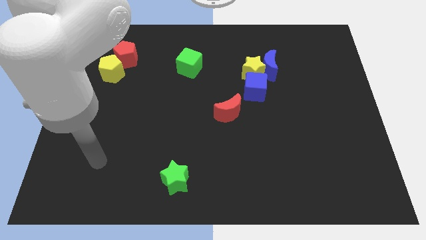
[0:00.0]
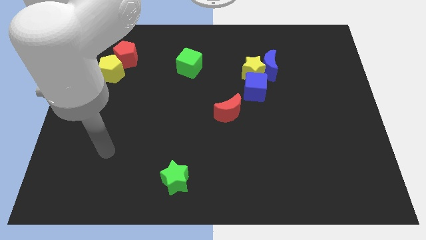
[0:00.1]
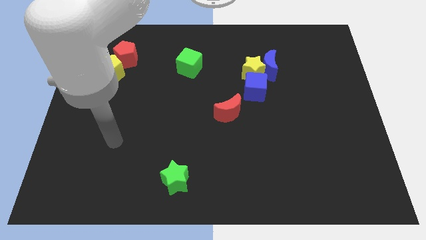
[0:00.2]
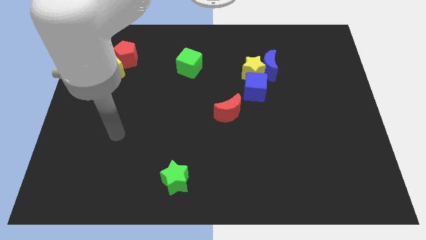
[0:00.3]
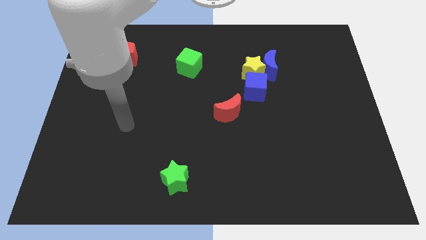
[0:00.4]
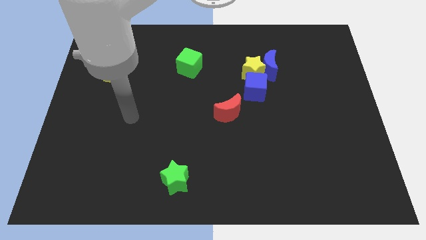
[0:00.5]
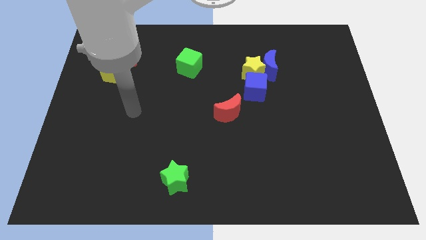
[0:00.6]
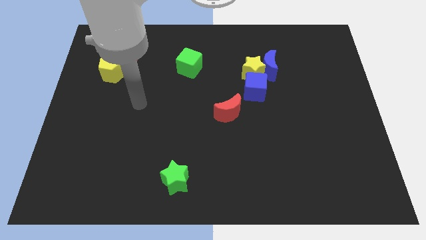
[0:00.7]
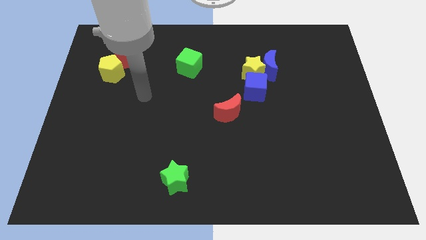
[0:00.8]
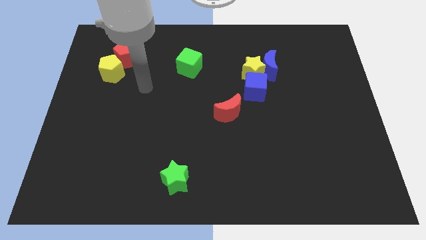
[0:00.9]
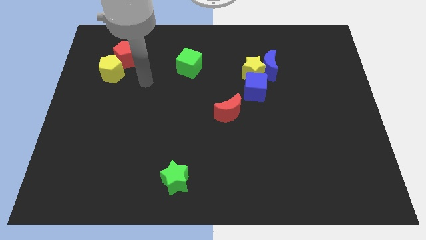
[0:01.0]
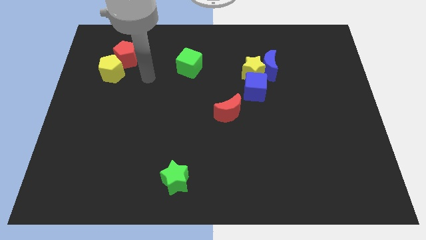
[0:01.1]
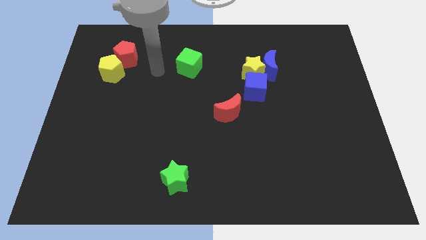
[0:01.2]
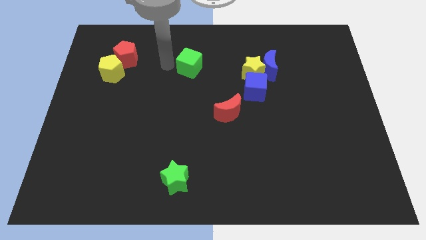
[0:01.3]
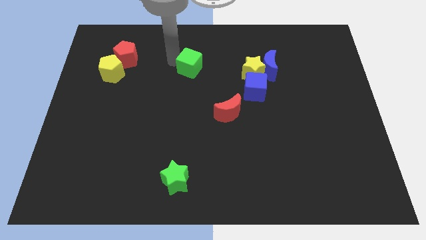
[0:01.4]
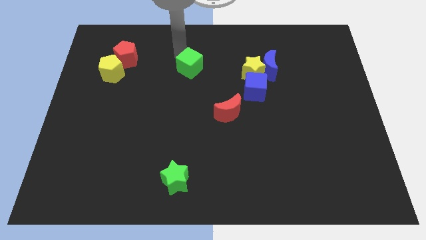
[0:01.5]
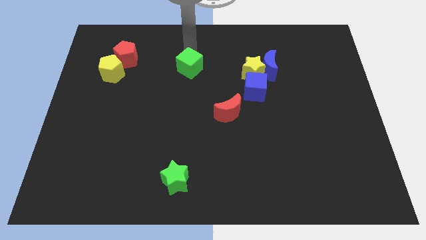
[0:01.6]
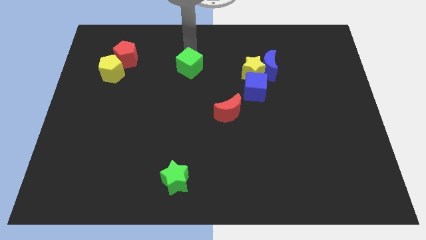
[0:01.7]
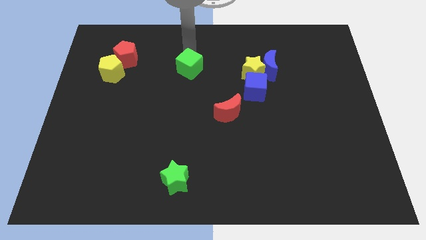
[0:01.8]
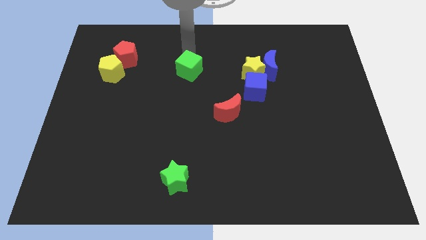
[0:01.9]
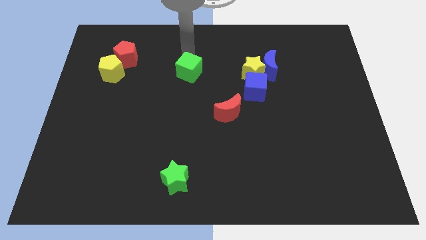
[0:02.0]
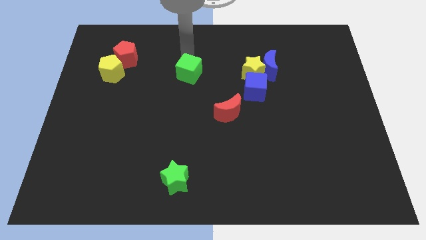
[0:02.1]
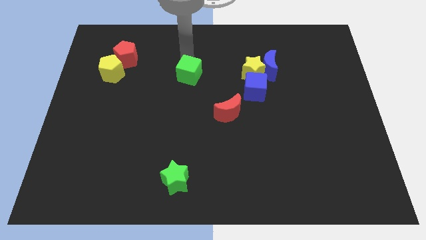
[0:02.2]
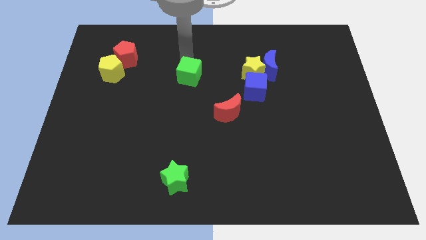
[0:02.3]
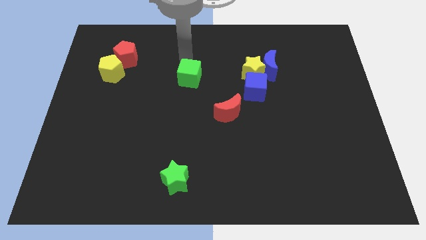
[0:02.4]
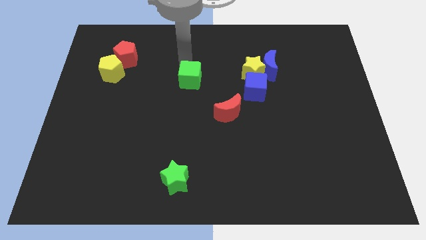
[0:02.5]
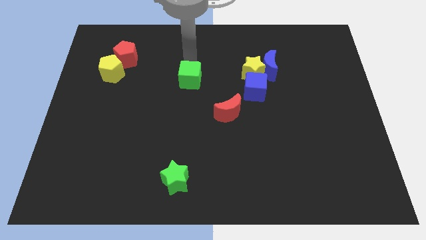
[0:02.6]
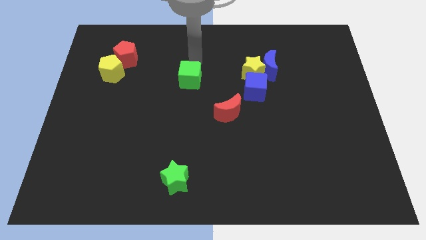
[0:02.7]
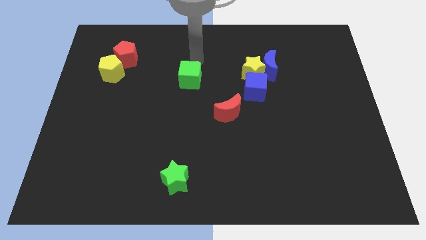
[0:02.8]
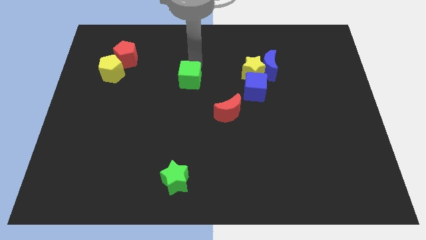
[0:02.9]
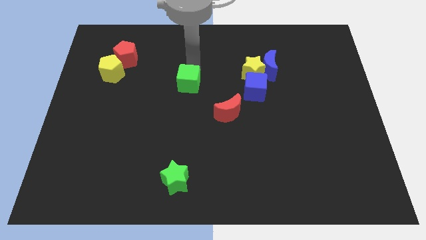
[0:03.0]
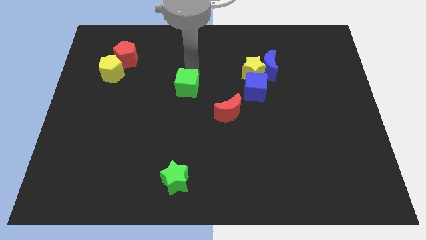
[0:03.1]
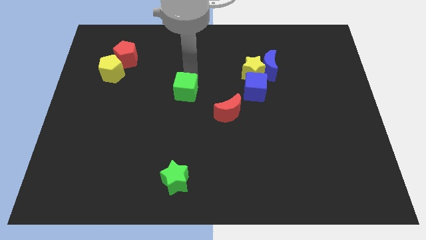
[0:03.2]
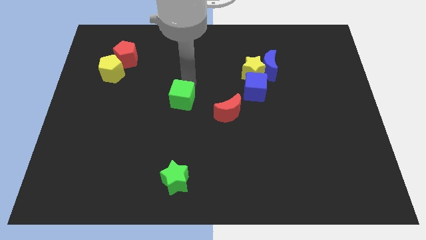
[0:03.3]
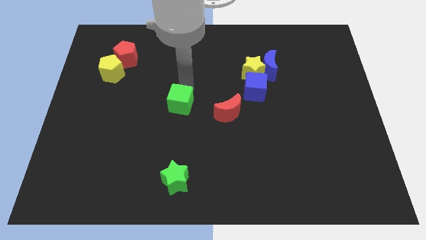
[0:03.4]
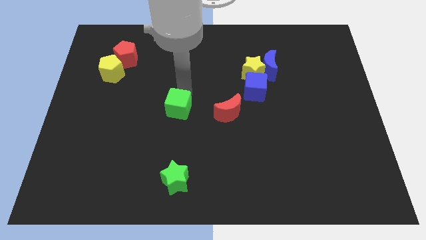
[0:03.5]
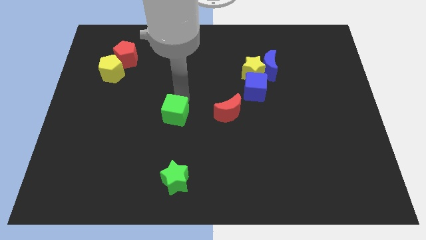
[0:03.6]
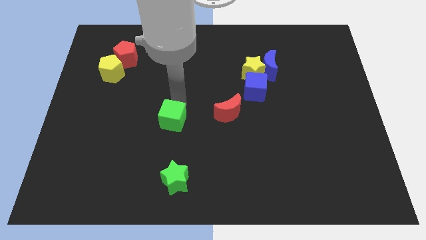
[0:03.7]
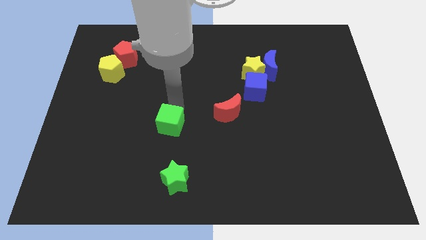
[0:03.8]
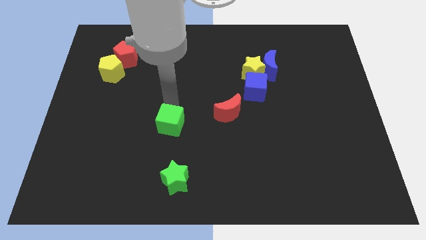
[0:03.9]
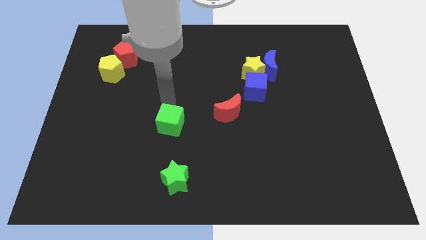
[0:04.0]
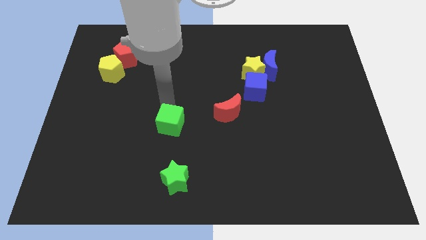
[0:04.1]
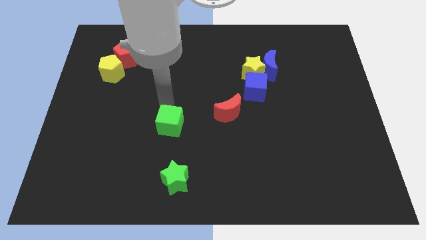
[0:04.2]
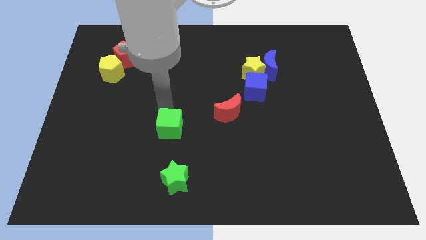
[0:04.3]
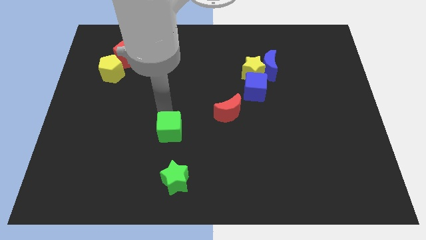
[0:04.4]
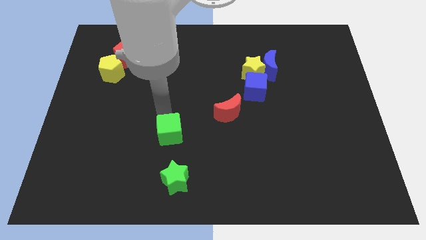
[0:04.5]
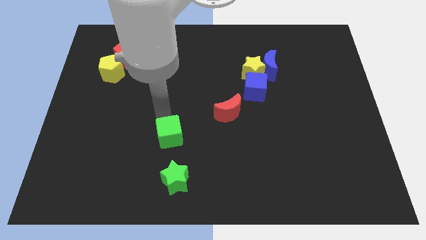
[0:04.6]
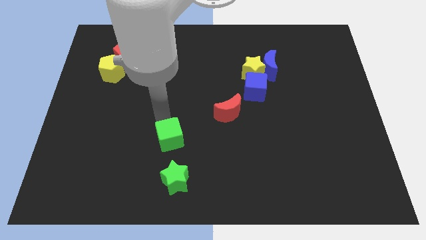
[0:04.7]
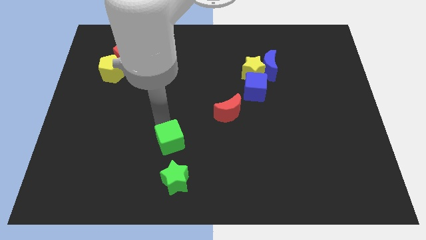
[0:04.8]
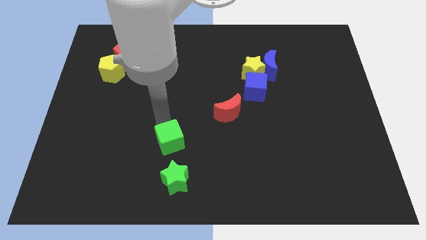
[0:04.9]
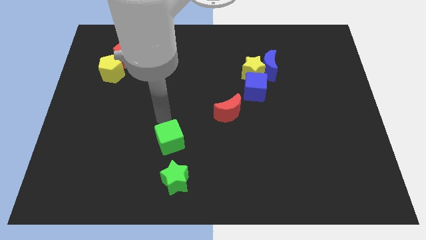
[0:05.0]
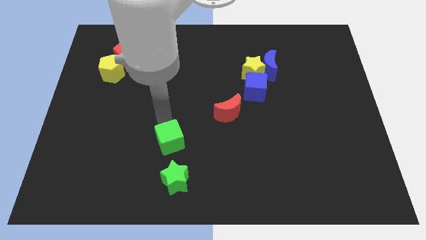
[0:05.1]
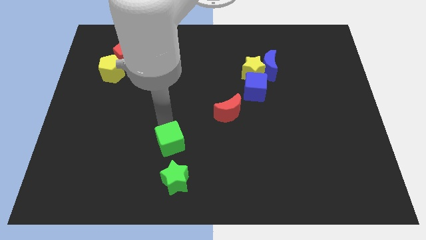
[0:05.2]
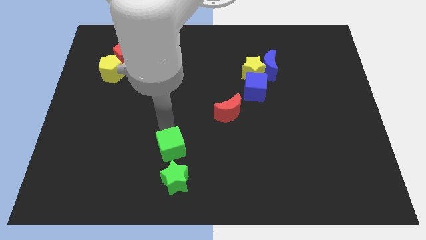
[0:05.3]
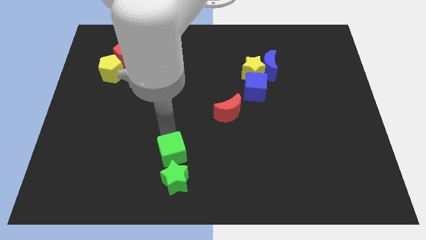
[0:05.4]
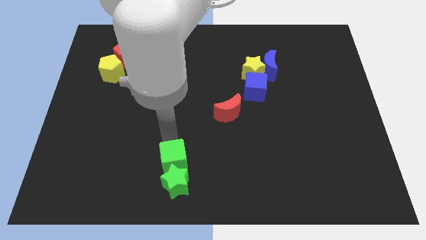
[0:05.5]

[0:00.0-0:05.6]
put the green cube next to the green star
